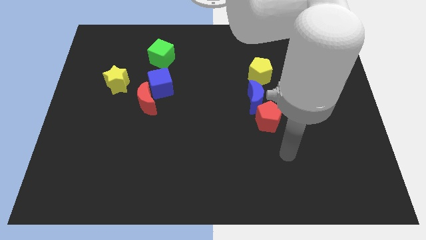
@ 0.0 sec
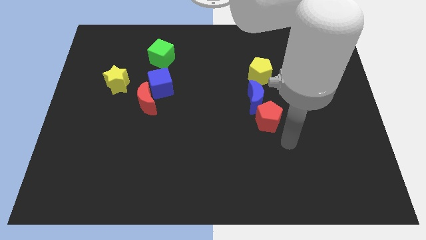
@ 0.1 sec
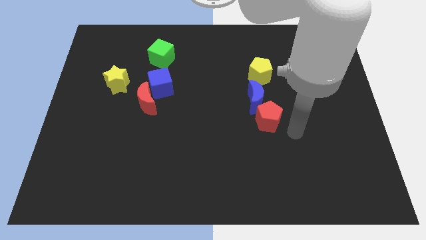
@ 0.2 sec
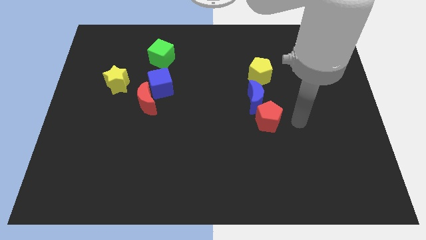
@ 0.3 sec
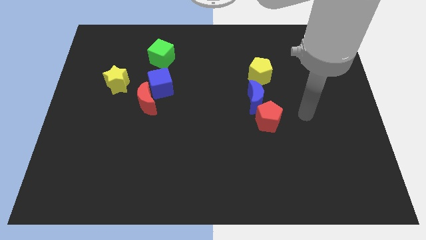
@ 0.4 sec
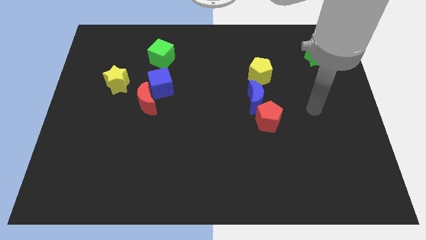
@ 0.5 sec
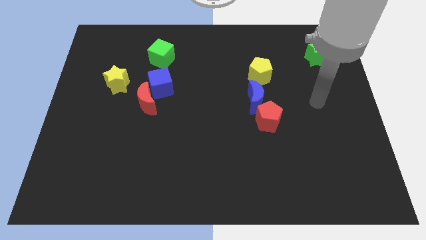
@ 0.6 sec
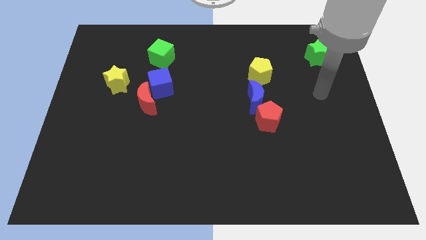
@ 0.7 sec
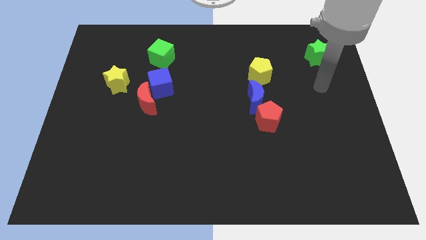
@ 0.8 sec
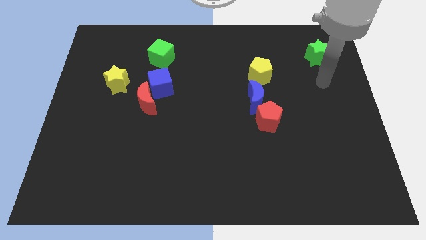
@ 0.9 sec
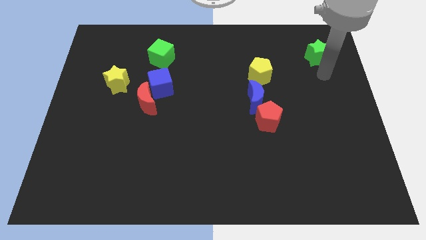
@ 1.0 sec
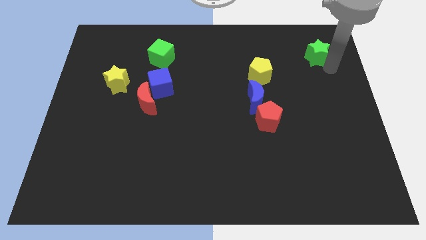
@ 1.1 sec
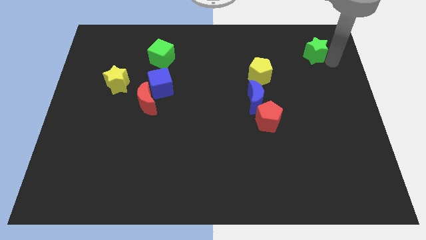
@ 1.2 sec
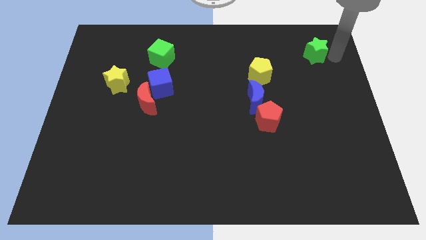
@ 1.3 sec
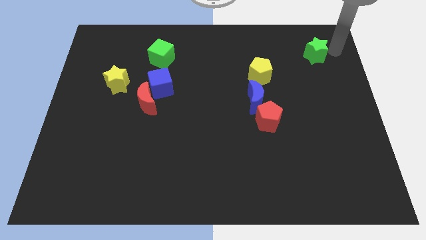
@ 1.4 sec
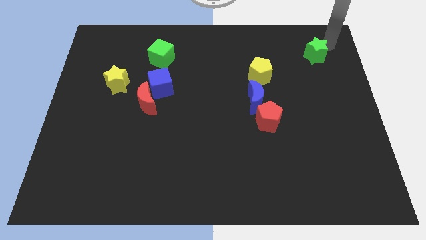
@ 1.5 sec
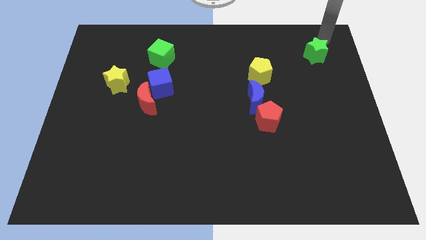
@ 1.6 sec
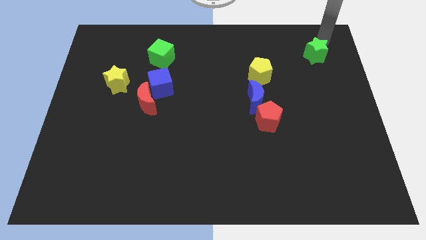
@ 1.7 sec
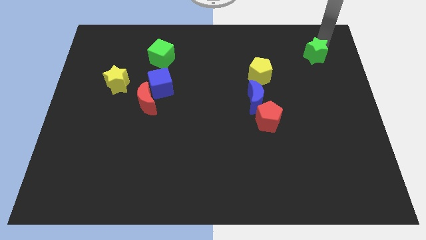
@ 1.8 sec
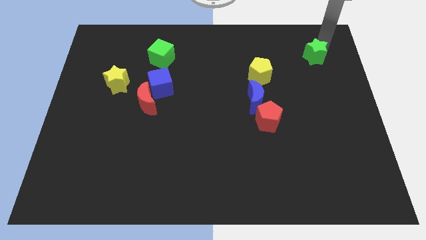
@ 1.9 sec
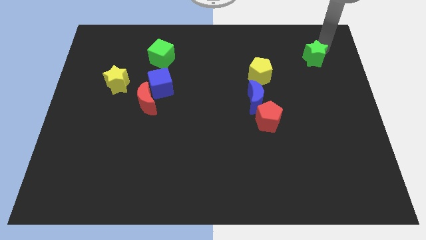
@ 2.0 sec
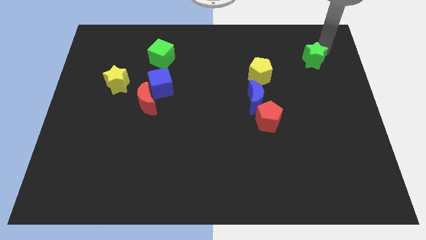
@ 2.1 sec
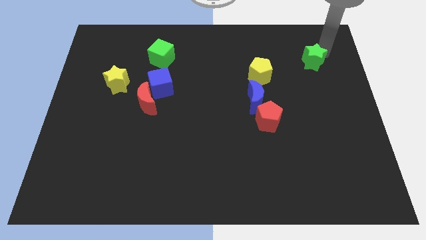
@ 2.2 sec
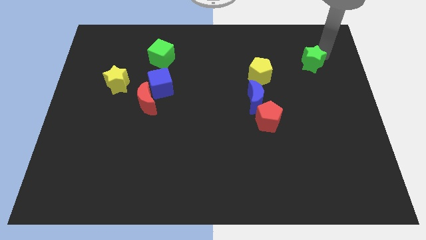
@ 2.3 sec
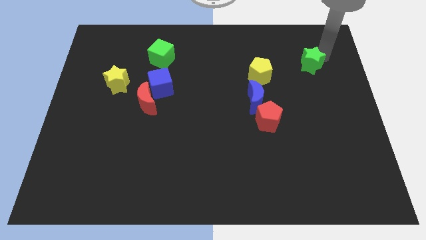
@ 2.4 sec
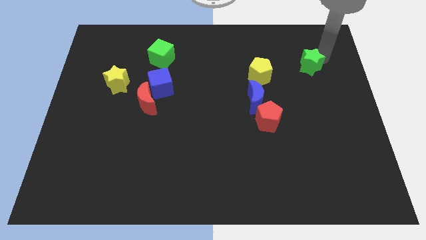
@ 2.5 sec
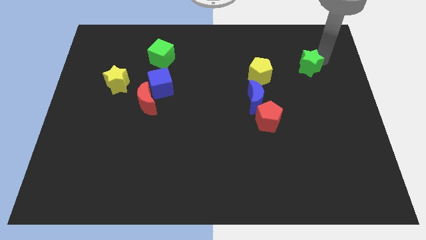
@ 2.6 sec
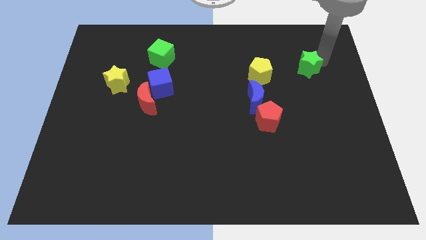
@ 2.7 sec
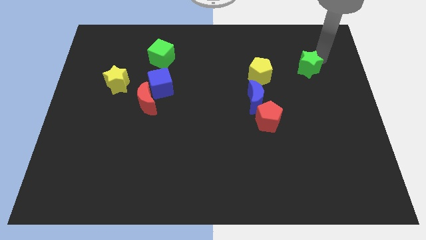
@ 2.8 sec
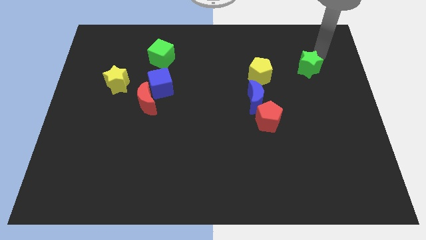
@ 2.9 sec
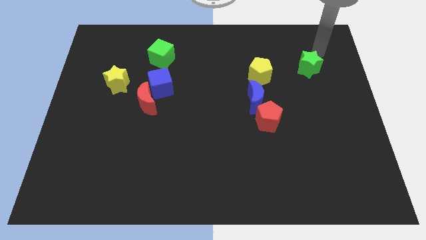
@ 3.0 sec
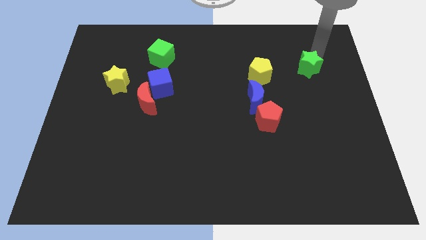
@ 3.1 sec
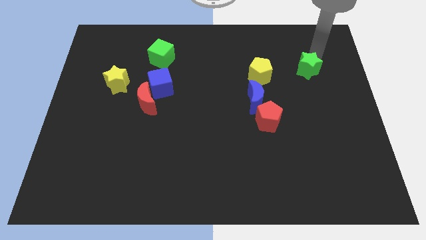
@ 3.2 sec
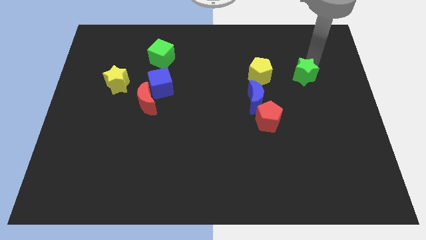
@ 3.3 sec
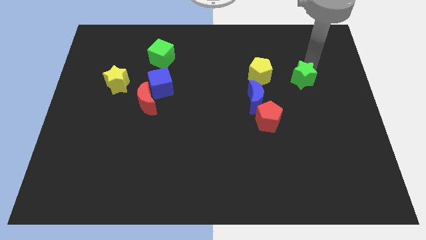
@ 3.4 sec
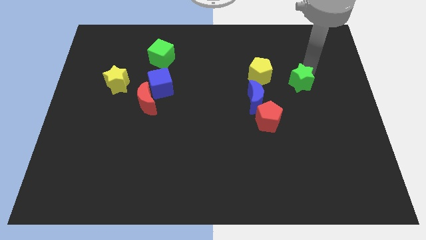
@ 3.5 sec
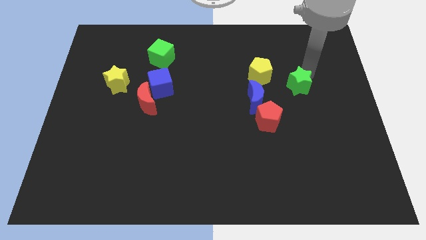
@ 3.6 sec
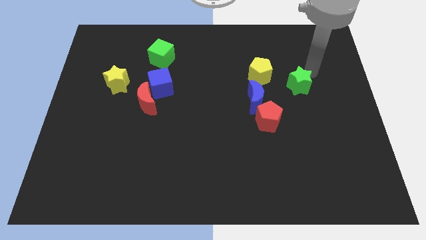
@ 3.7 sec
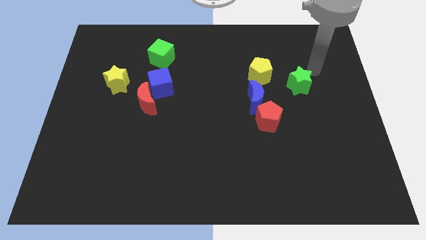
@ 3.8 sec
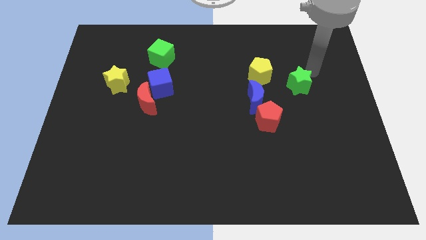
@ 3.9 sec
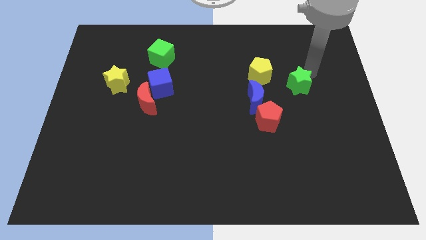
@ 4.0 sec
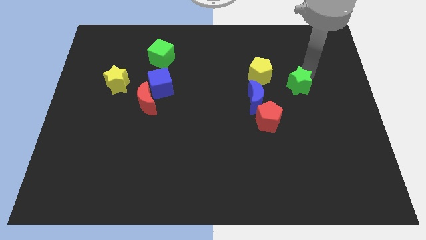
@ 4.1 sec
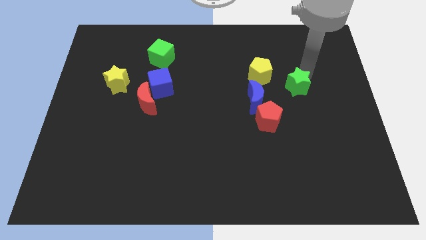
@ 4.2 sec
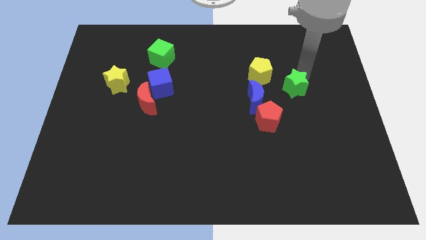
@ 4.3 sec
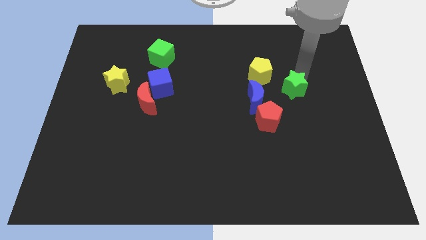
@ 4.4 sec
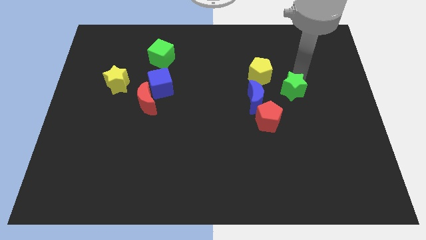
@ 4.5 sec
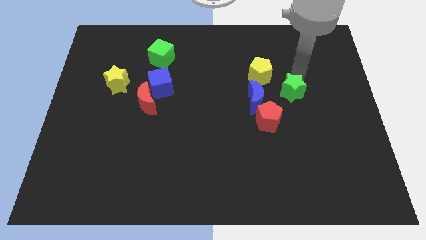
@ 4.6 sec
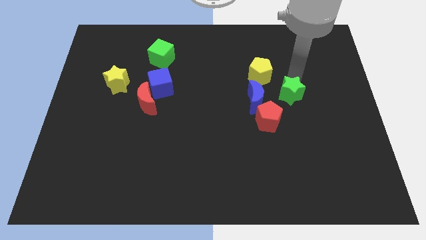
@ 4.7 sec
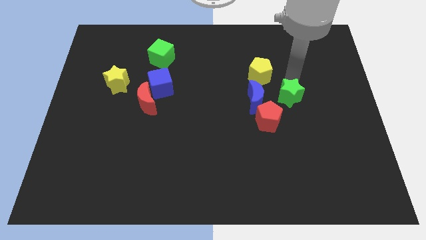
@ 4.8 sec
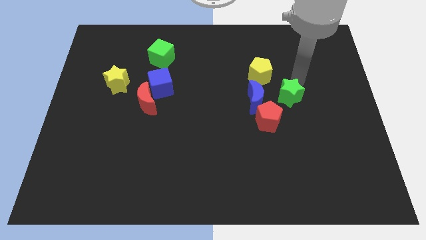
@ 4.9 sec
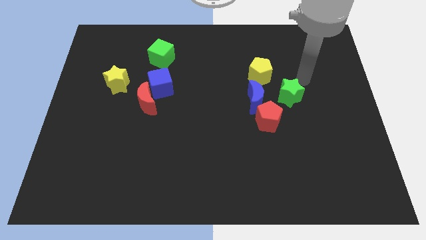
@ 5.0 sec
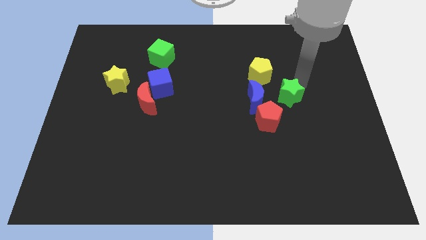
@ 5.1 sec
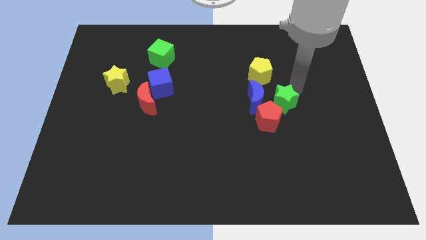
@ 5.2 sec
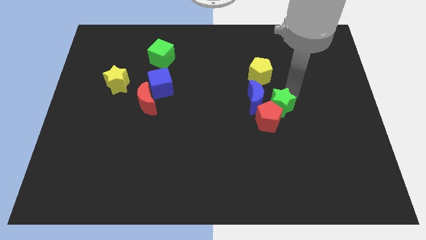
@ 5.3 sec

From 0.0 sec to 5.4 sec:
move the green star towards the red pentagon

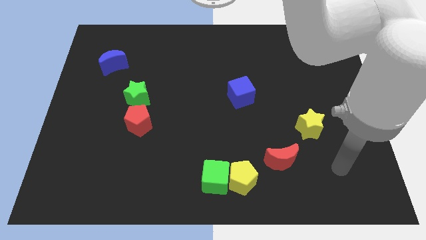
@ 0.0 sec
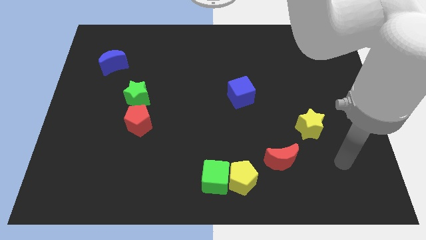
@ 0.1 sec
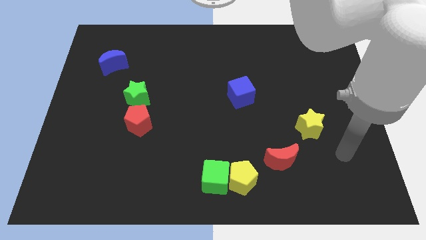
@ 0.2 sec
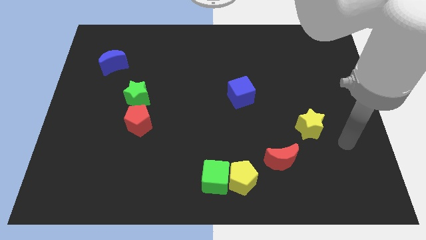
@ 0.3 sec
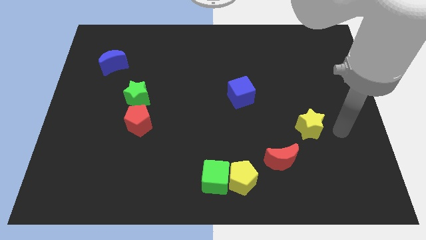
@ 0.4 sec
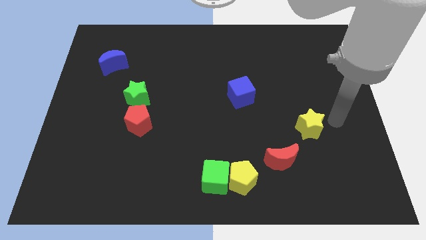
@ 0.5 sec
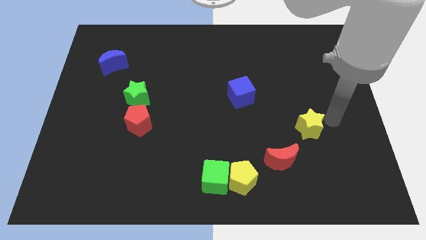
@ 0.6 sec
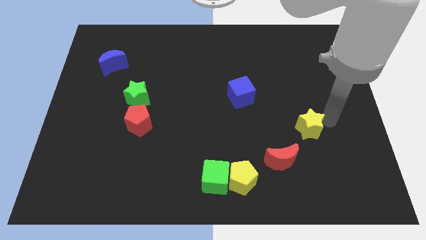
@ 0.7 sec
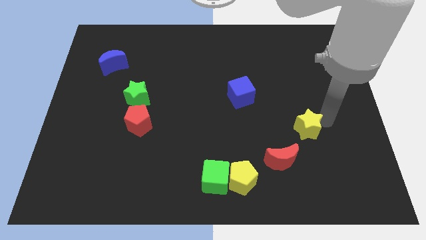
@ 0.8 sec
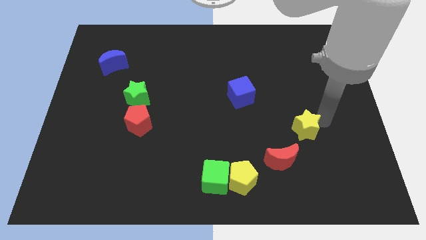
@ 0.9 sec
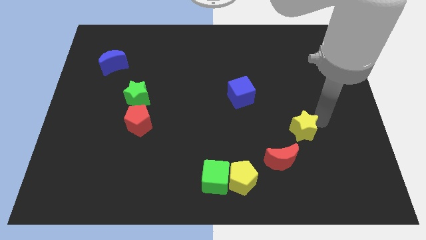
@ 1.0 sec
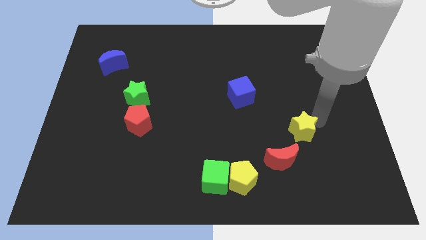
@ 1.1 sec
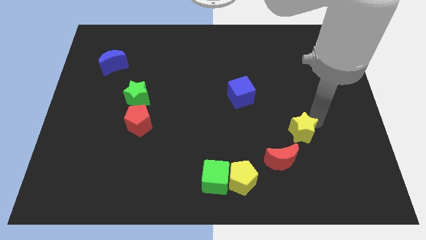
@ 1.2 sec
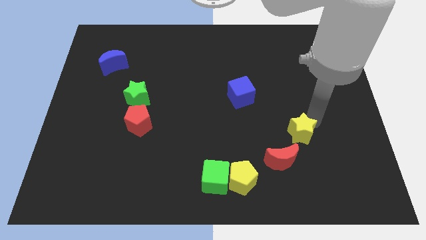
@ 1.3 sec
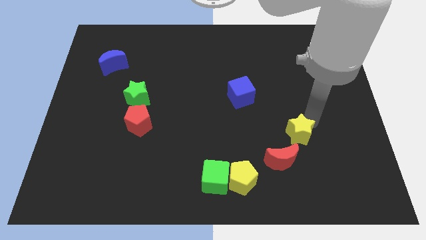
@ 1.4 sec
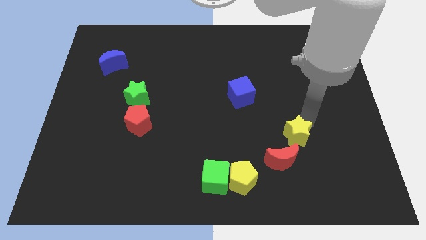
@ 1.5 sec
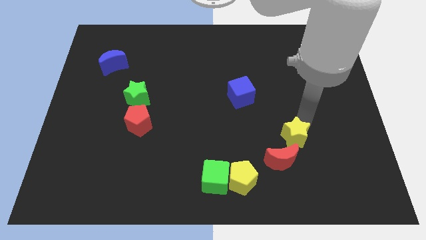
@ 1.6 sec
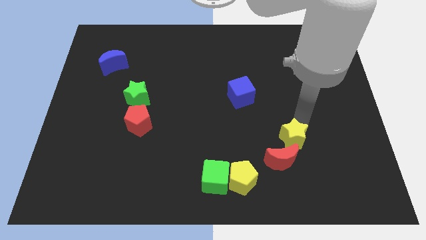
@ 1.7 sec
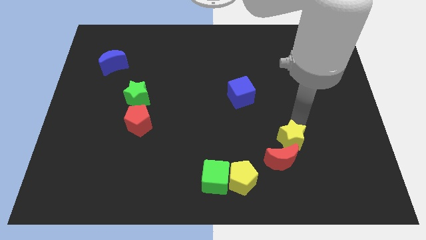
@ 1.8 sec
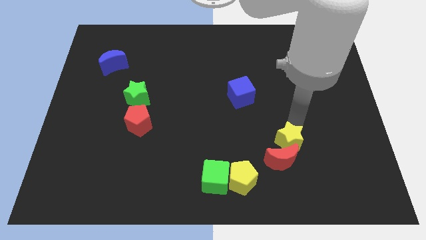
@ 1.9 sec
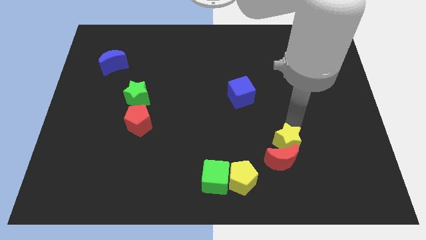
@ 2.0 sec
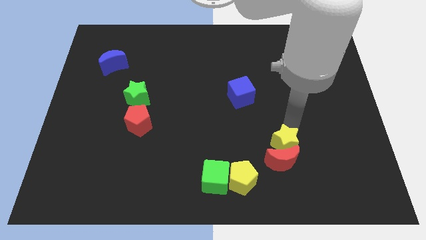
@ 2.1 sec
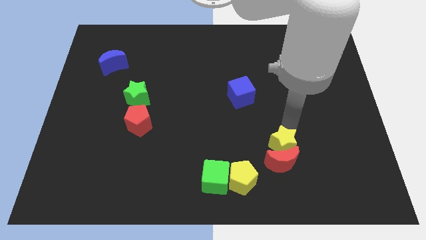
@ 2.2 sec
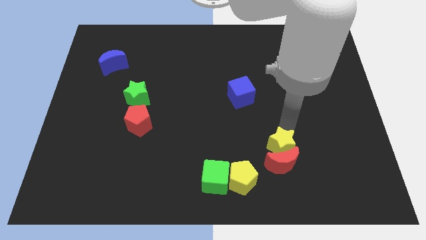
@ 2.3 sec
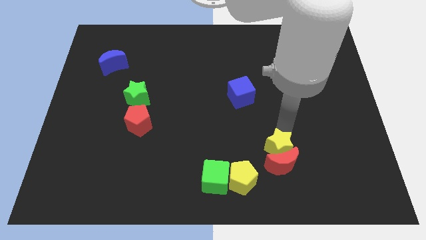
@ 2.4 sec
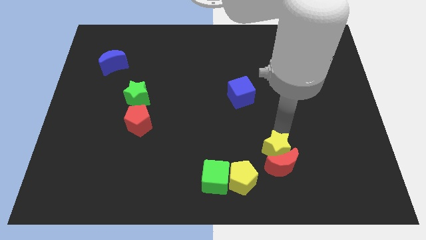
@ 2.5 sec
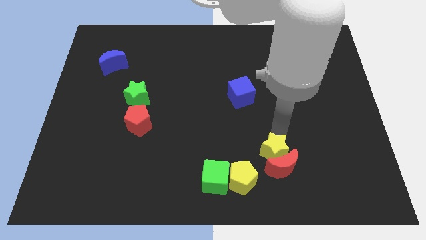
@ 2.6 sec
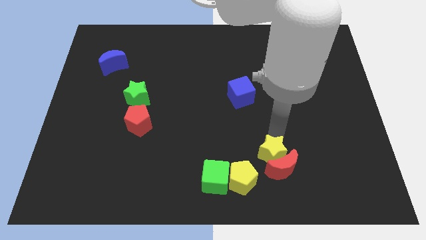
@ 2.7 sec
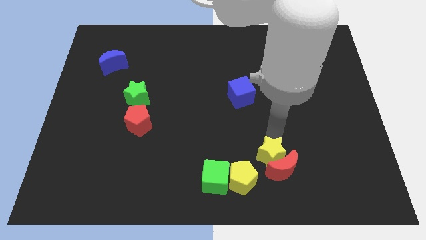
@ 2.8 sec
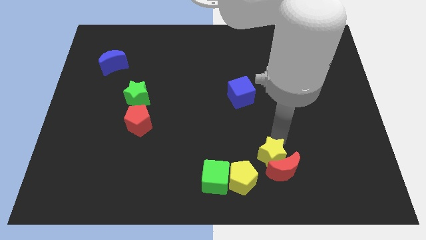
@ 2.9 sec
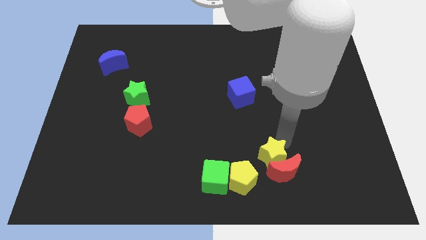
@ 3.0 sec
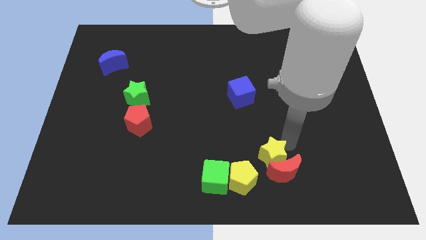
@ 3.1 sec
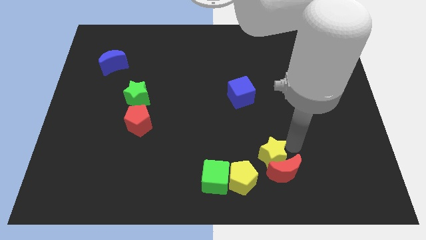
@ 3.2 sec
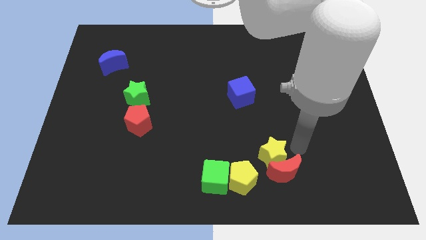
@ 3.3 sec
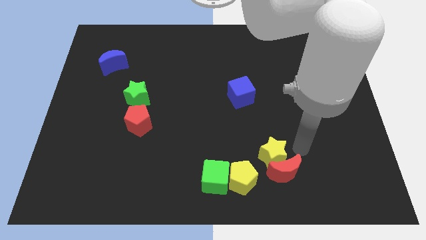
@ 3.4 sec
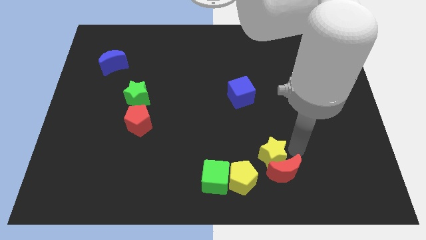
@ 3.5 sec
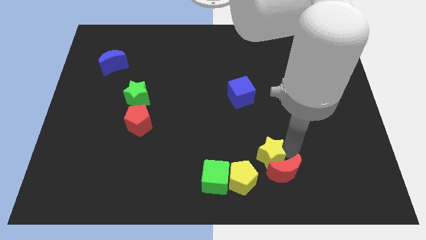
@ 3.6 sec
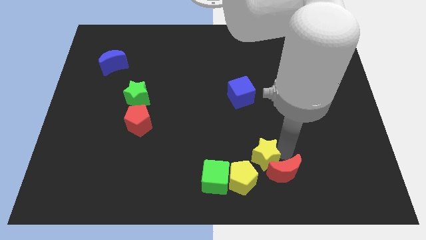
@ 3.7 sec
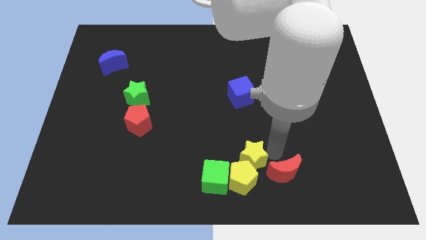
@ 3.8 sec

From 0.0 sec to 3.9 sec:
slide the yellow star towards the yellow pentagon
